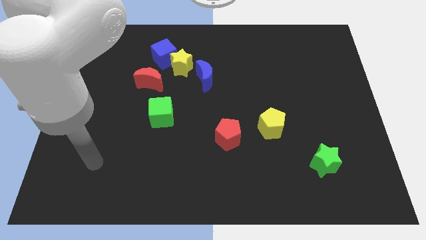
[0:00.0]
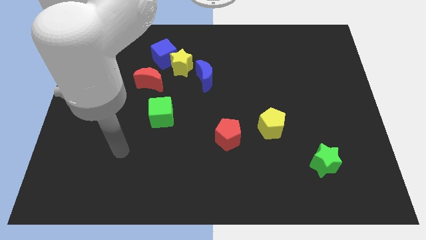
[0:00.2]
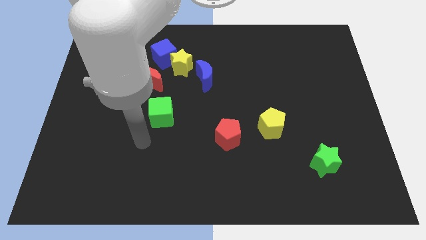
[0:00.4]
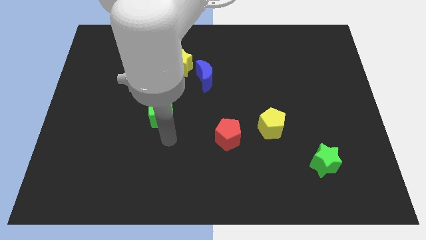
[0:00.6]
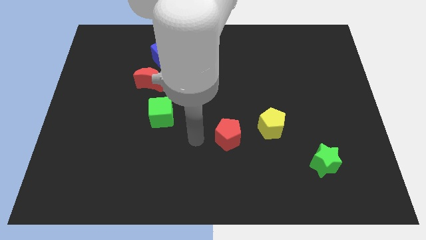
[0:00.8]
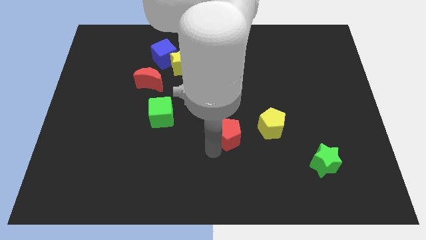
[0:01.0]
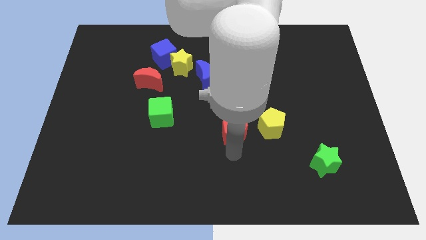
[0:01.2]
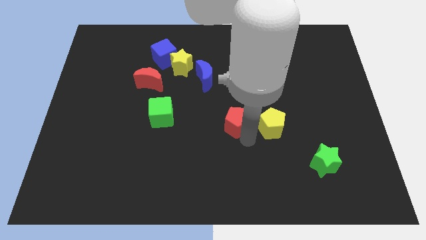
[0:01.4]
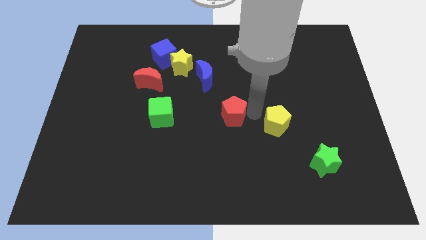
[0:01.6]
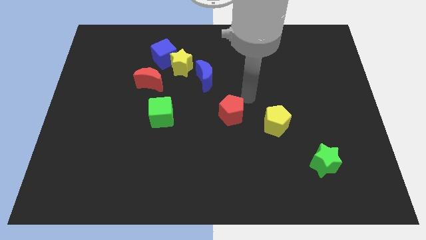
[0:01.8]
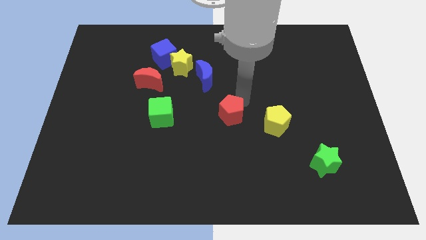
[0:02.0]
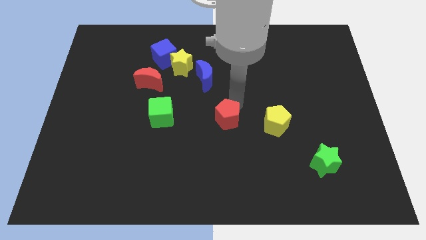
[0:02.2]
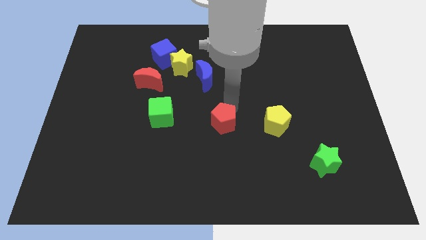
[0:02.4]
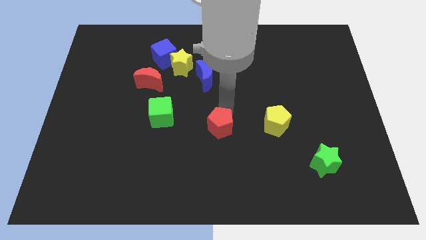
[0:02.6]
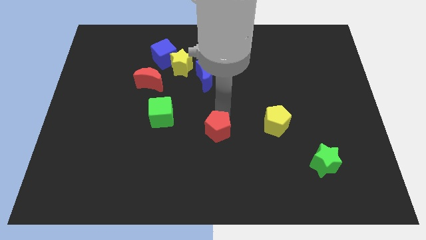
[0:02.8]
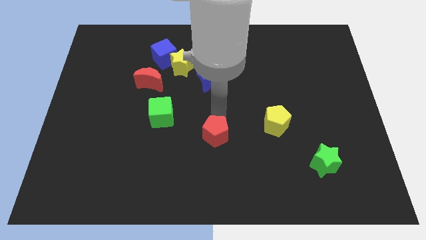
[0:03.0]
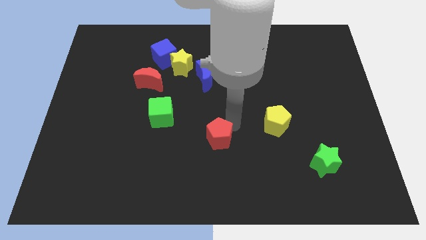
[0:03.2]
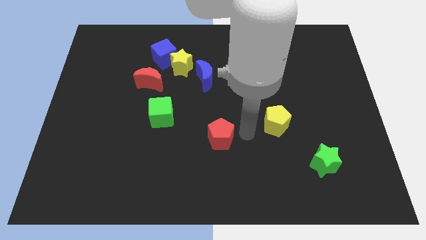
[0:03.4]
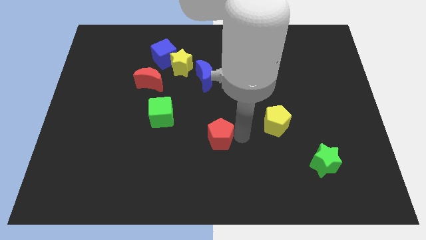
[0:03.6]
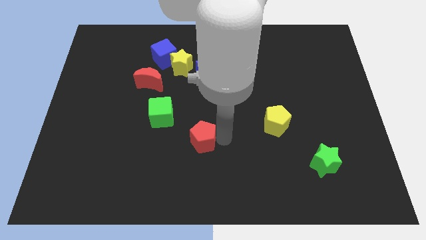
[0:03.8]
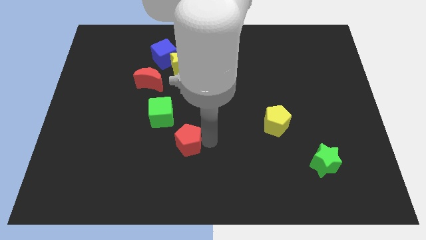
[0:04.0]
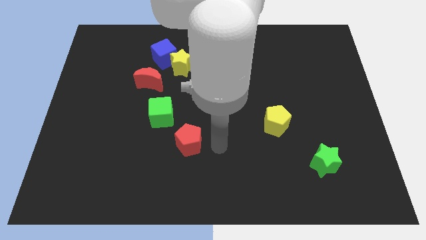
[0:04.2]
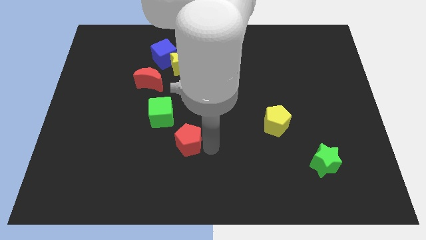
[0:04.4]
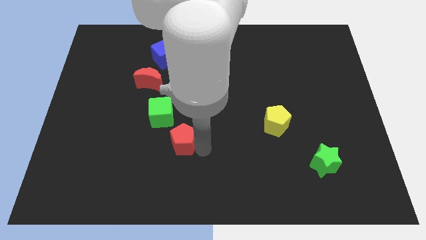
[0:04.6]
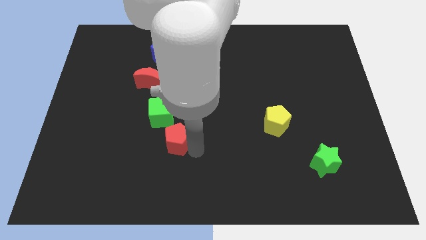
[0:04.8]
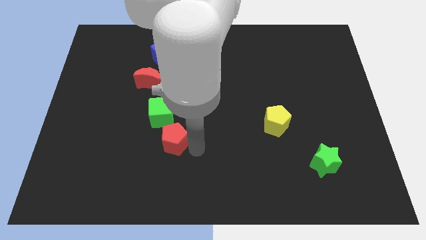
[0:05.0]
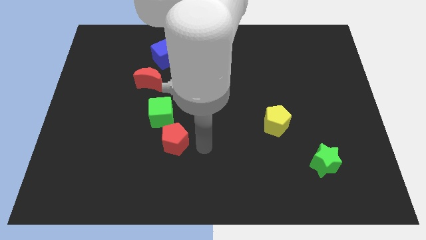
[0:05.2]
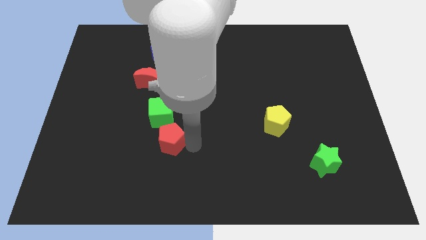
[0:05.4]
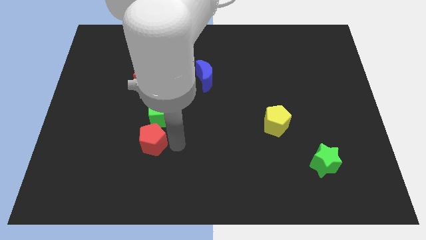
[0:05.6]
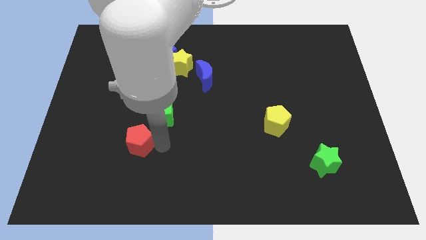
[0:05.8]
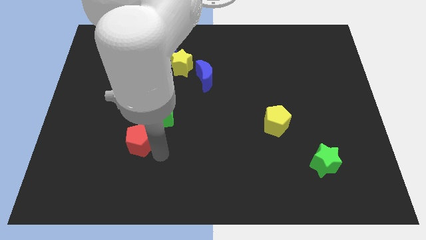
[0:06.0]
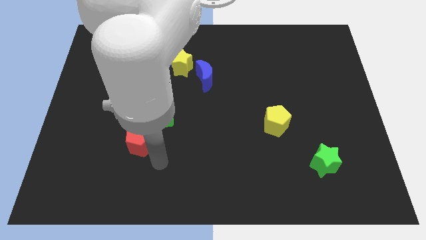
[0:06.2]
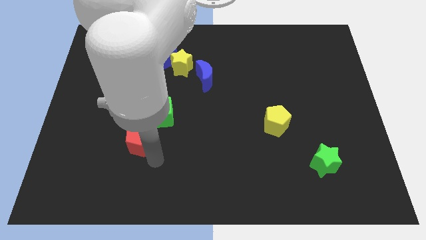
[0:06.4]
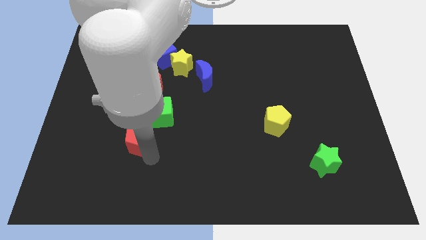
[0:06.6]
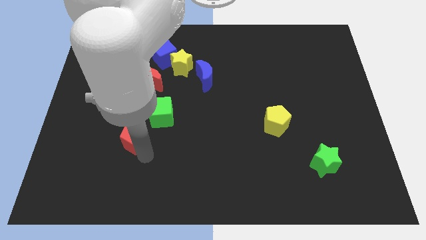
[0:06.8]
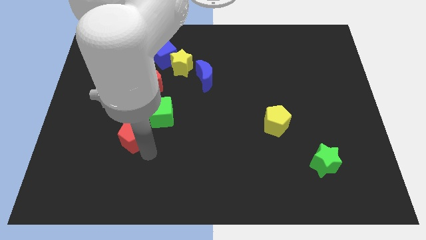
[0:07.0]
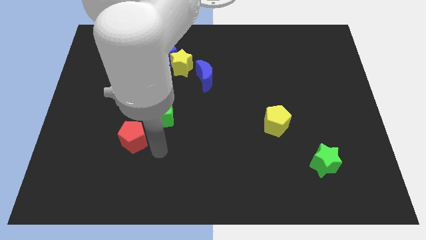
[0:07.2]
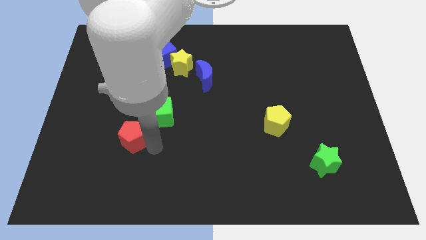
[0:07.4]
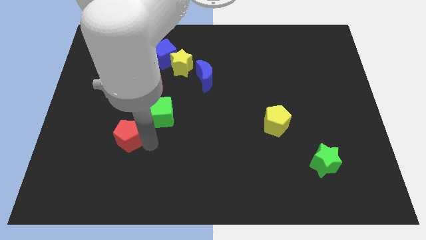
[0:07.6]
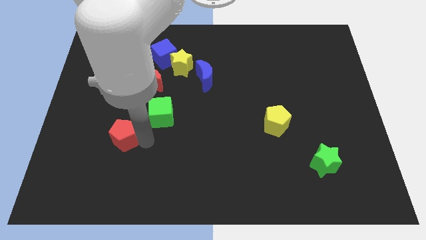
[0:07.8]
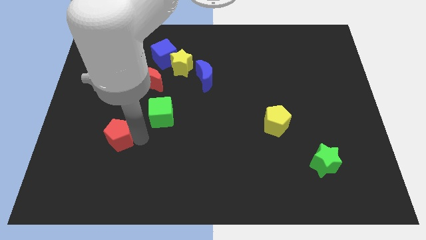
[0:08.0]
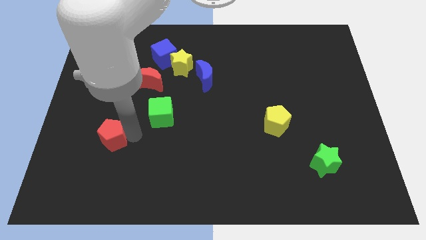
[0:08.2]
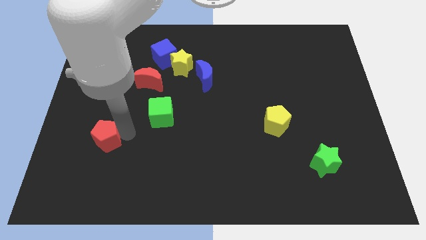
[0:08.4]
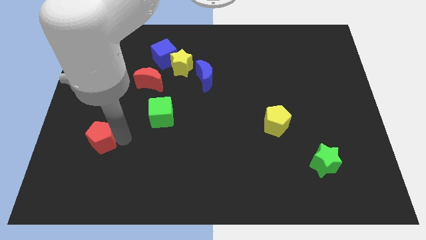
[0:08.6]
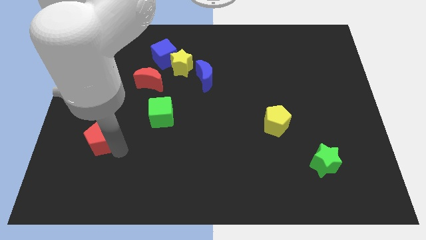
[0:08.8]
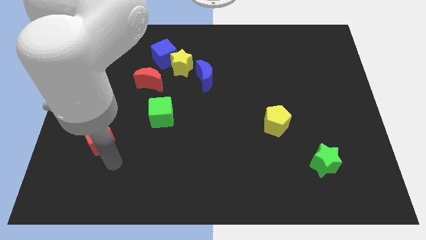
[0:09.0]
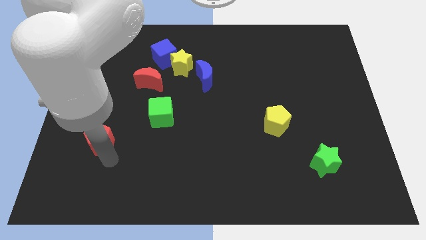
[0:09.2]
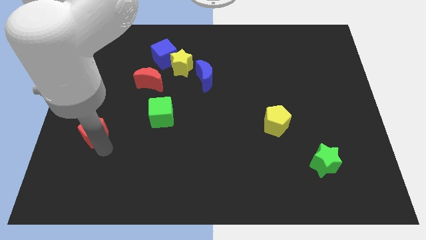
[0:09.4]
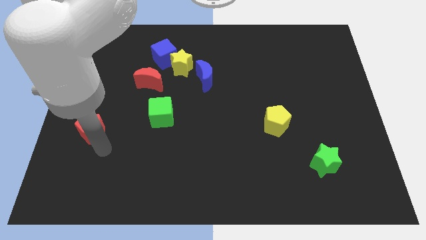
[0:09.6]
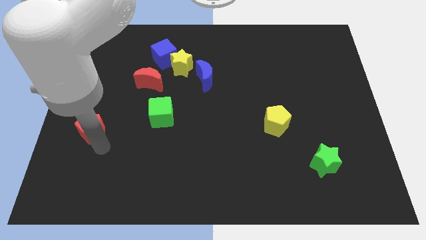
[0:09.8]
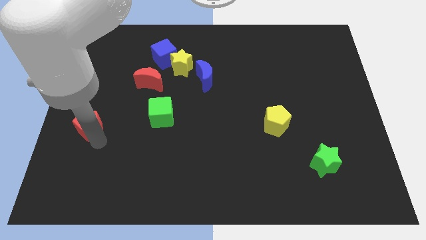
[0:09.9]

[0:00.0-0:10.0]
put the red pentagon to the left side of the board

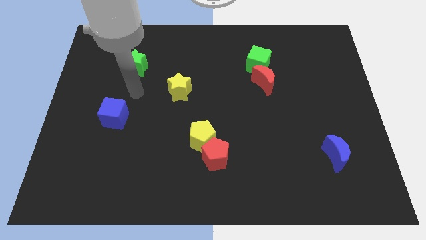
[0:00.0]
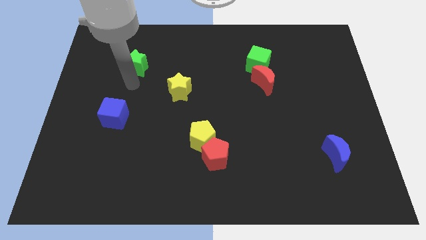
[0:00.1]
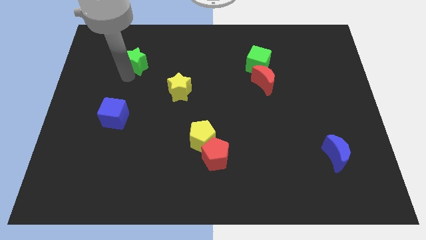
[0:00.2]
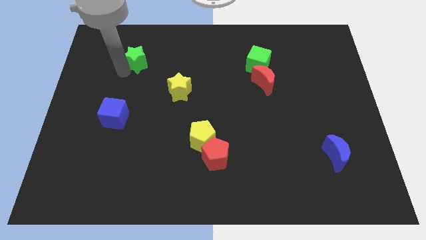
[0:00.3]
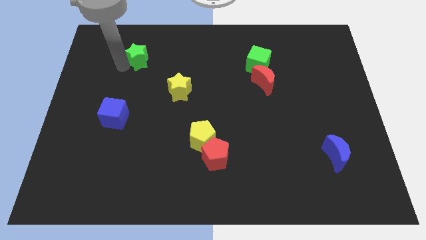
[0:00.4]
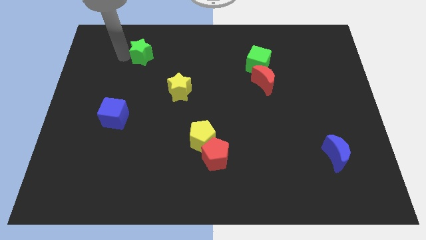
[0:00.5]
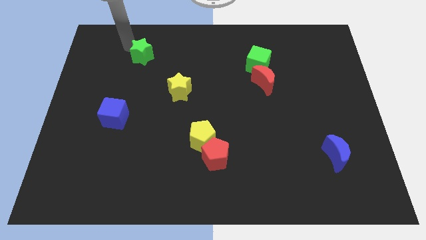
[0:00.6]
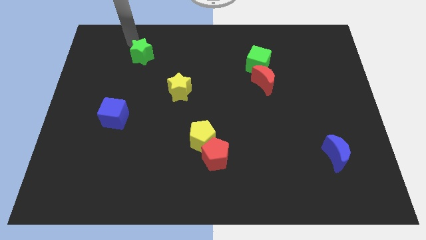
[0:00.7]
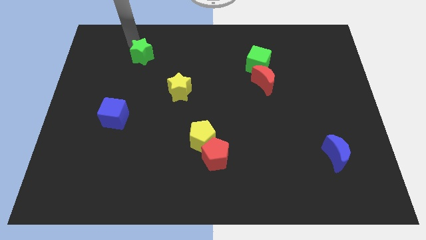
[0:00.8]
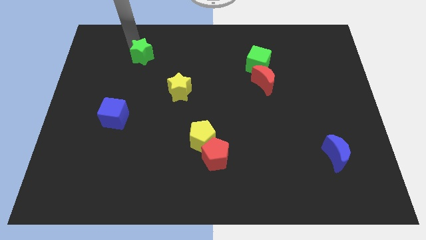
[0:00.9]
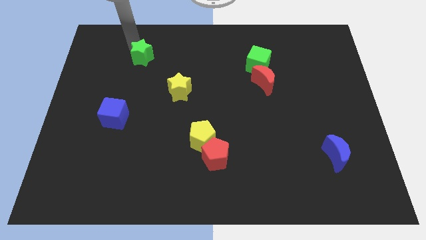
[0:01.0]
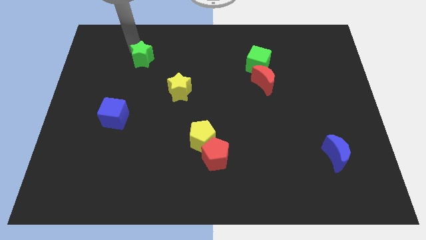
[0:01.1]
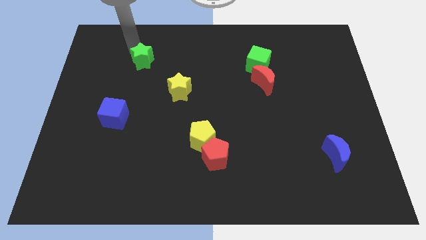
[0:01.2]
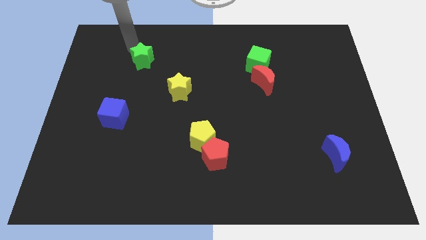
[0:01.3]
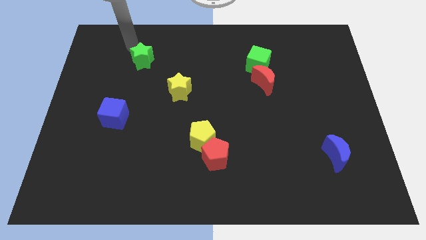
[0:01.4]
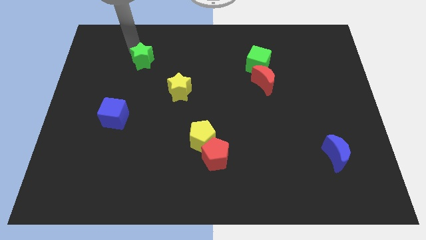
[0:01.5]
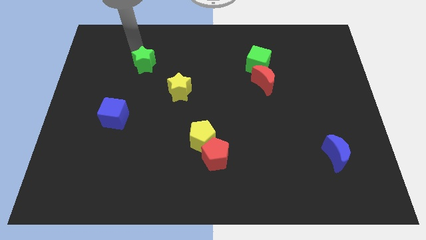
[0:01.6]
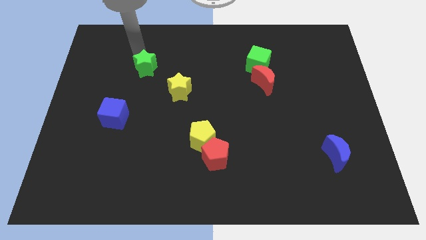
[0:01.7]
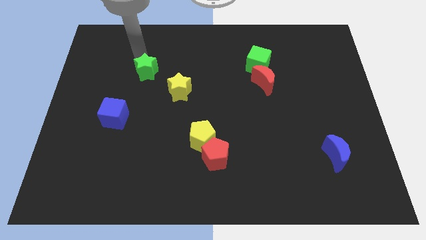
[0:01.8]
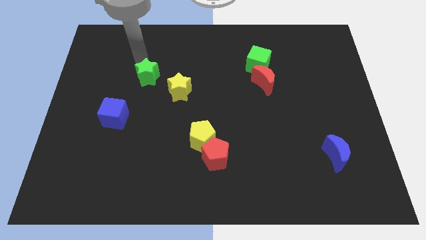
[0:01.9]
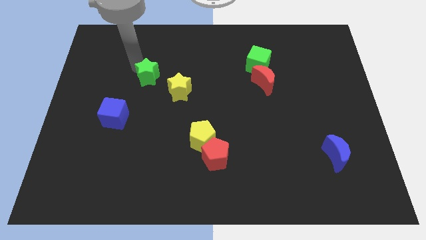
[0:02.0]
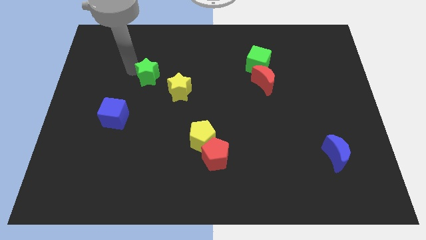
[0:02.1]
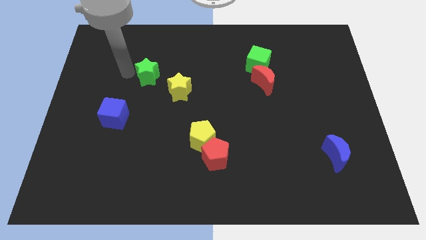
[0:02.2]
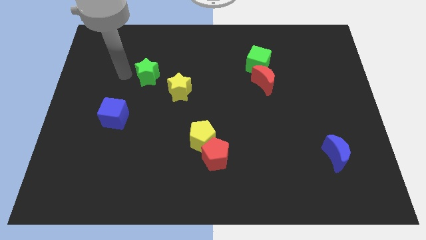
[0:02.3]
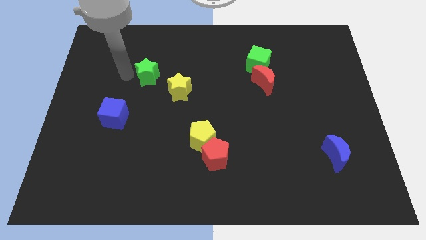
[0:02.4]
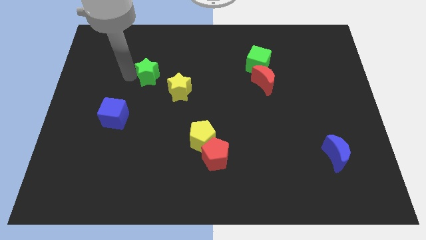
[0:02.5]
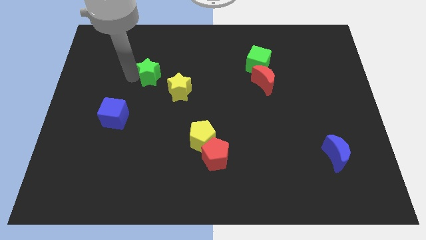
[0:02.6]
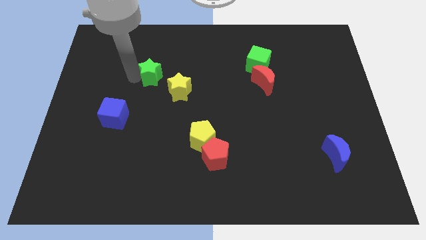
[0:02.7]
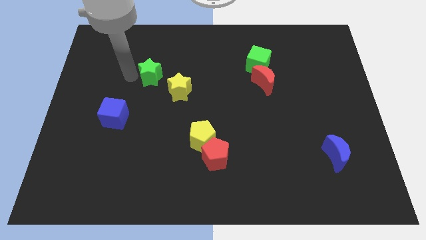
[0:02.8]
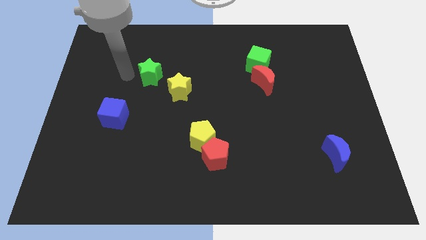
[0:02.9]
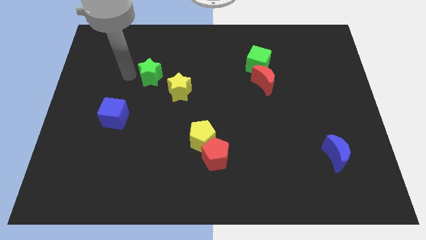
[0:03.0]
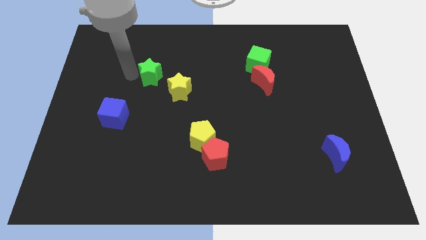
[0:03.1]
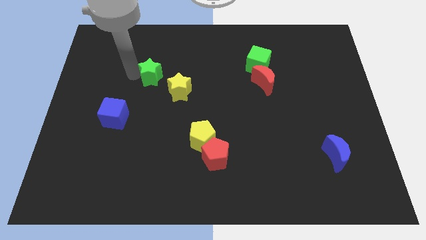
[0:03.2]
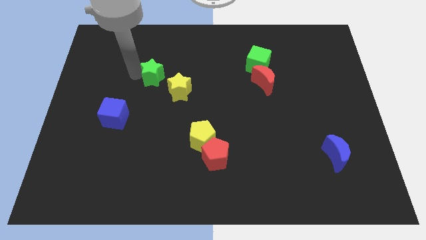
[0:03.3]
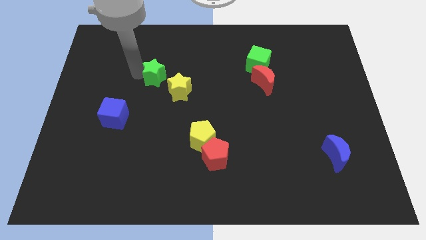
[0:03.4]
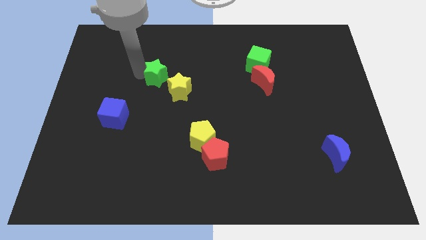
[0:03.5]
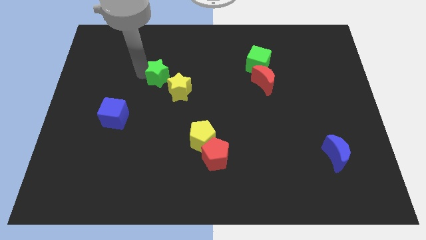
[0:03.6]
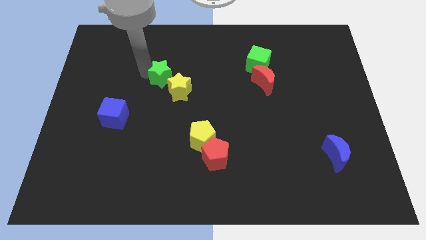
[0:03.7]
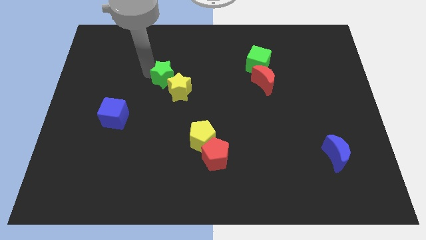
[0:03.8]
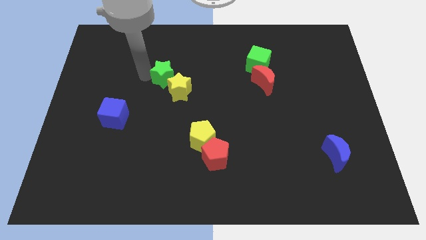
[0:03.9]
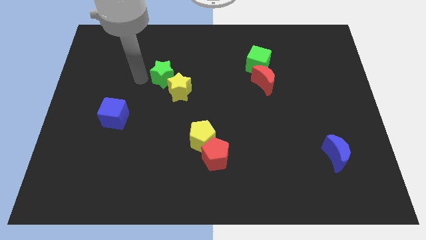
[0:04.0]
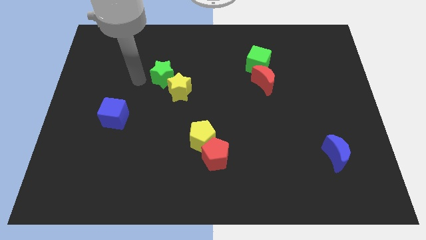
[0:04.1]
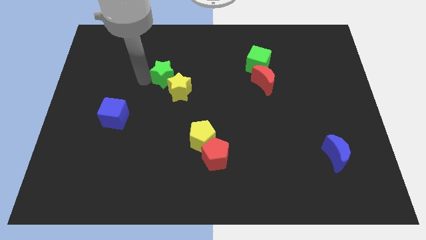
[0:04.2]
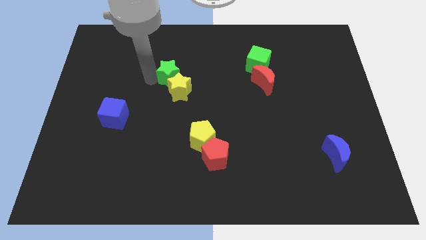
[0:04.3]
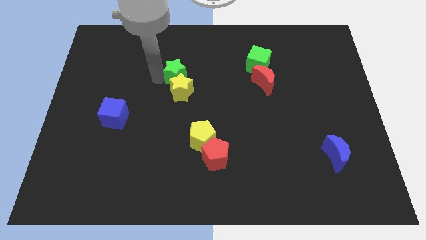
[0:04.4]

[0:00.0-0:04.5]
push the green star to the center
